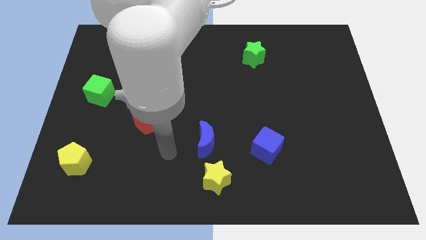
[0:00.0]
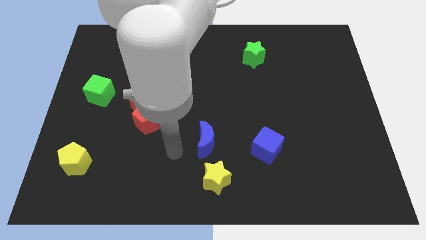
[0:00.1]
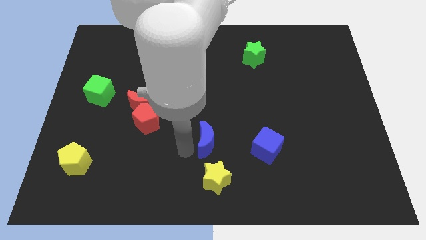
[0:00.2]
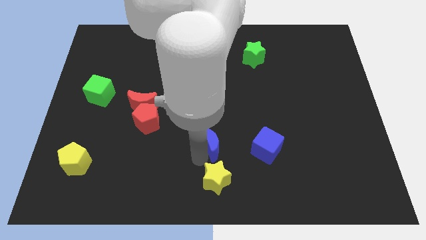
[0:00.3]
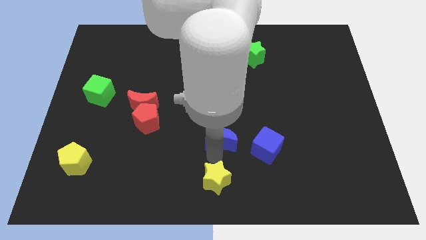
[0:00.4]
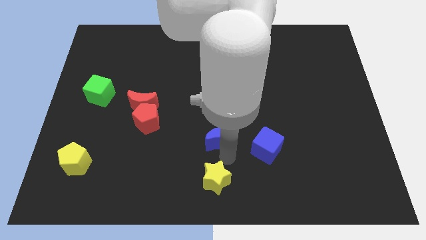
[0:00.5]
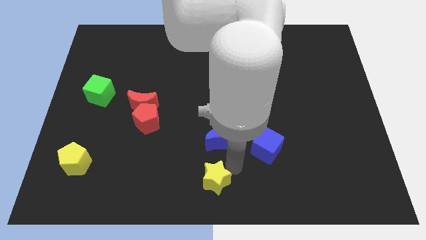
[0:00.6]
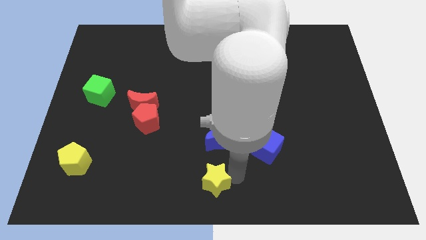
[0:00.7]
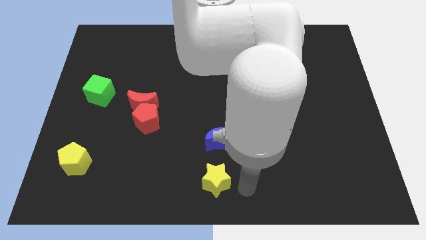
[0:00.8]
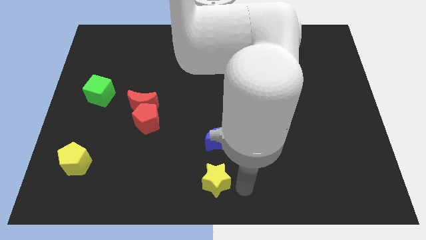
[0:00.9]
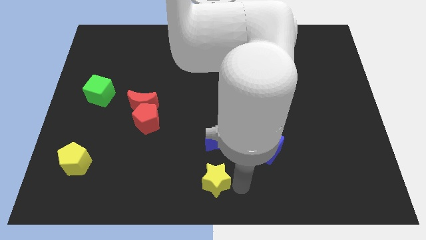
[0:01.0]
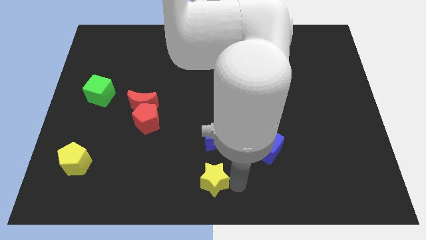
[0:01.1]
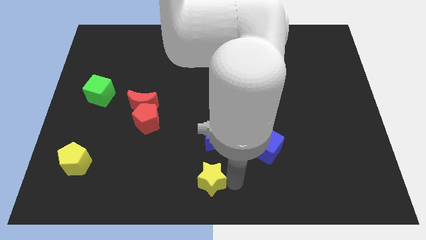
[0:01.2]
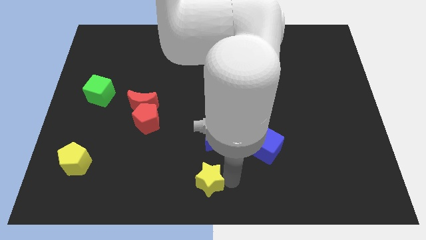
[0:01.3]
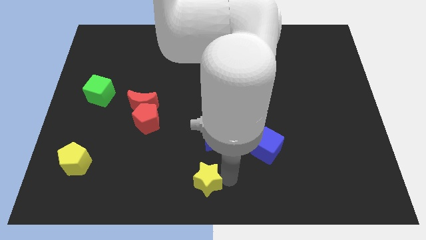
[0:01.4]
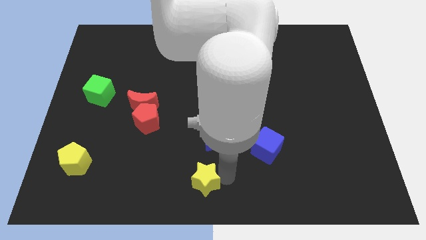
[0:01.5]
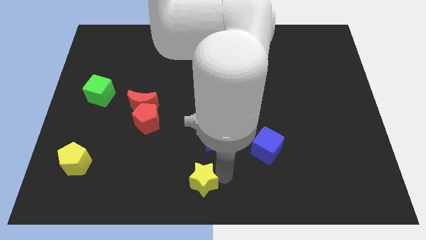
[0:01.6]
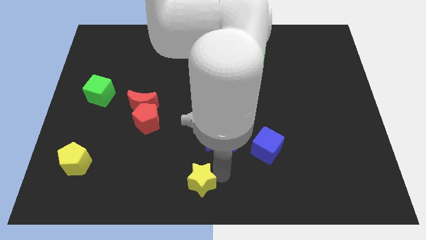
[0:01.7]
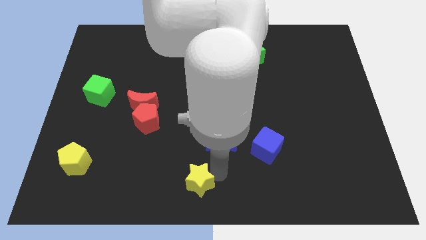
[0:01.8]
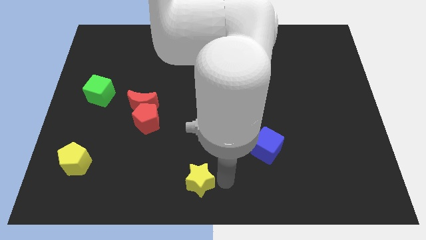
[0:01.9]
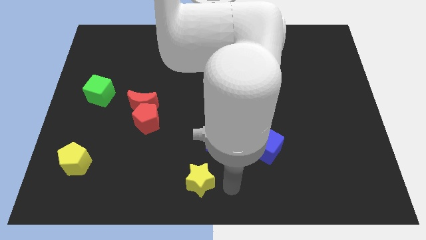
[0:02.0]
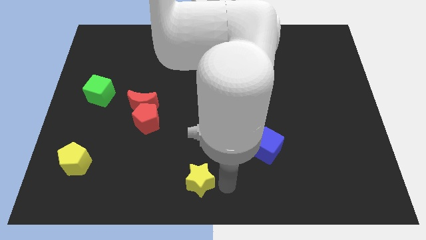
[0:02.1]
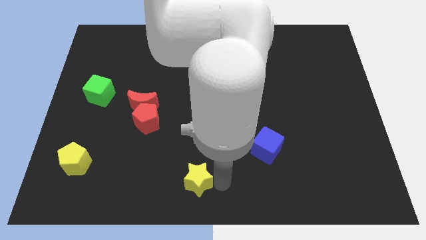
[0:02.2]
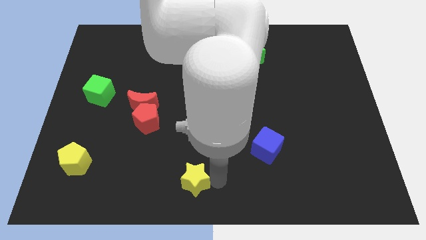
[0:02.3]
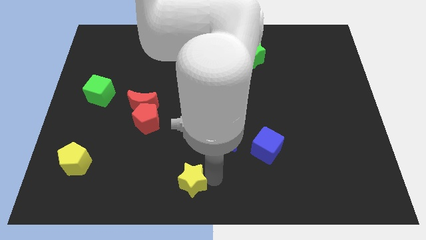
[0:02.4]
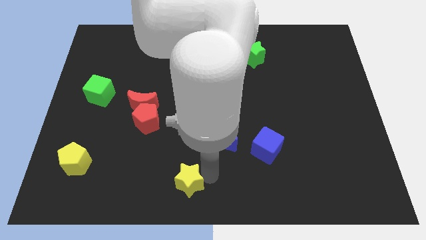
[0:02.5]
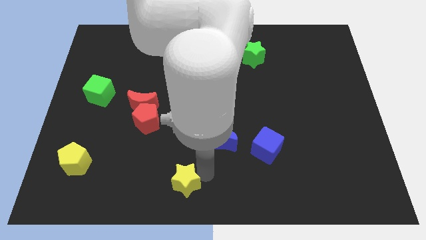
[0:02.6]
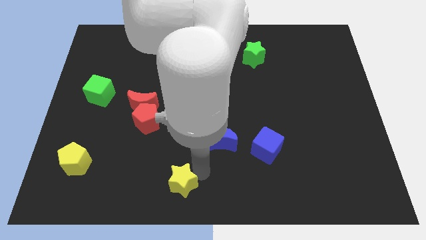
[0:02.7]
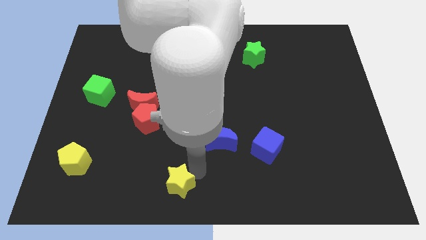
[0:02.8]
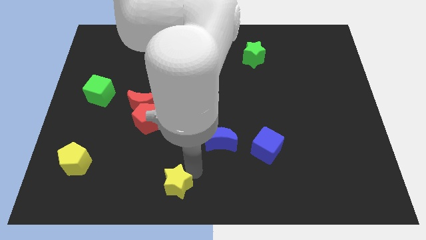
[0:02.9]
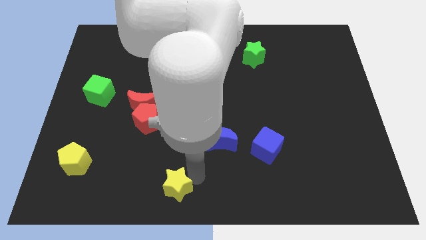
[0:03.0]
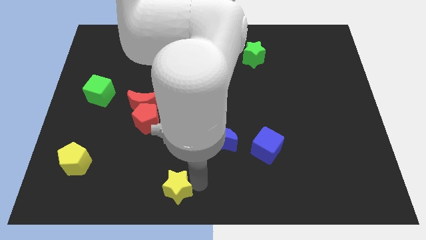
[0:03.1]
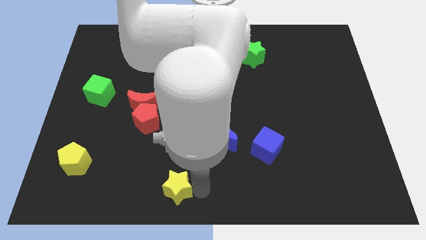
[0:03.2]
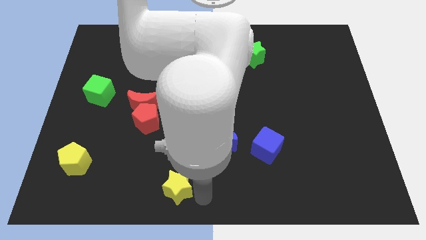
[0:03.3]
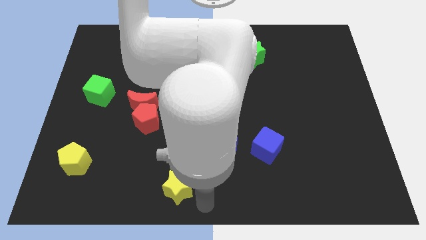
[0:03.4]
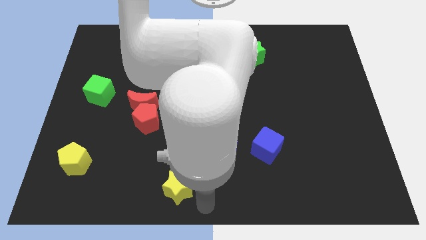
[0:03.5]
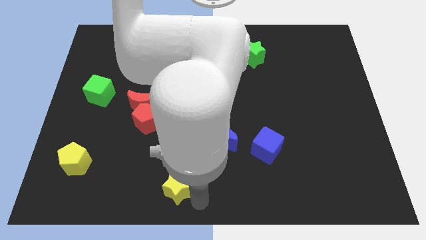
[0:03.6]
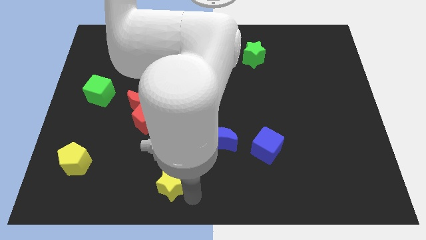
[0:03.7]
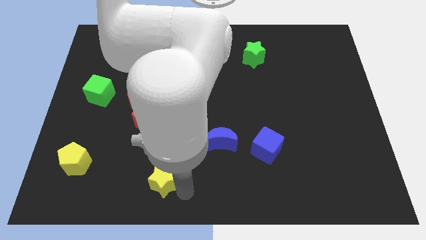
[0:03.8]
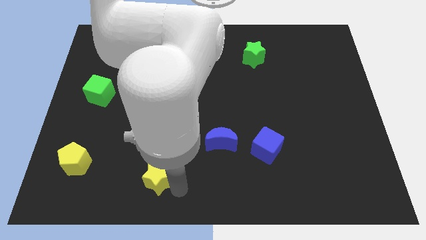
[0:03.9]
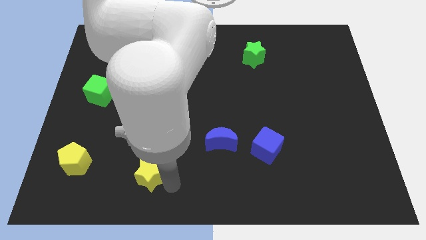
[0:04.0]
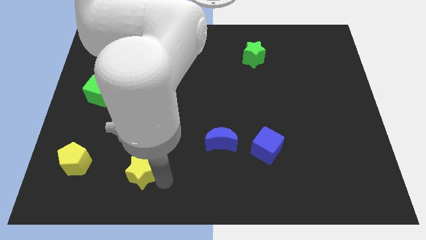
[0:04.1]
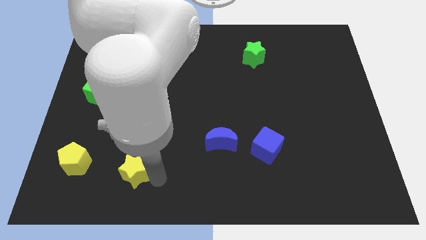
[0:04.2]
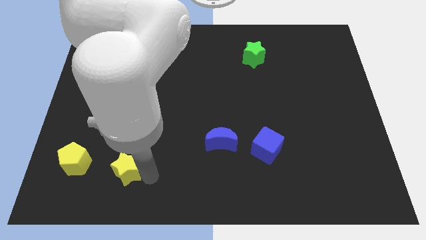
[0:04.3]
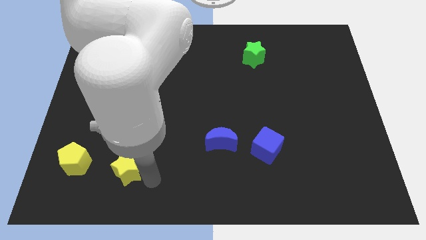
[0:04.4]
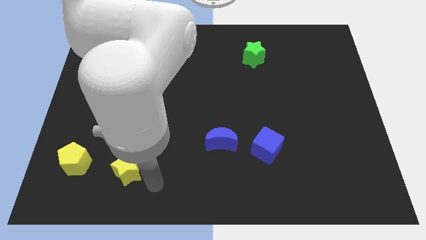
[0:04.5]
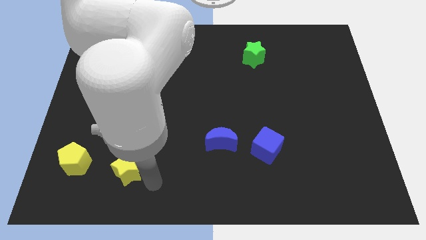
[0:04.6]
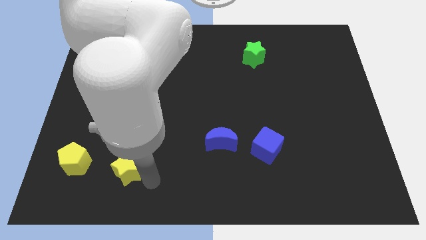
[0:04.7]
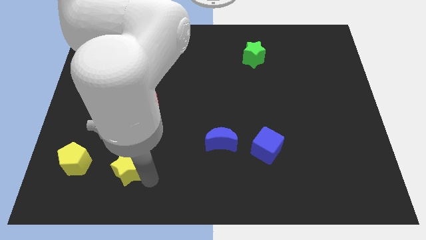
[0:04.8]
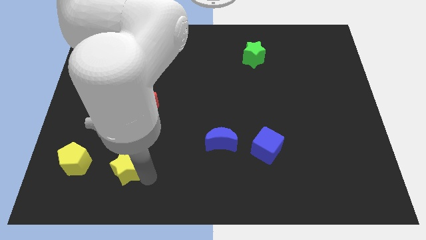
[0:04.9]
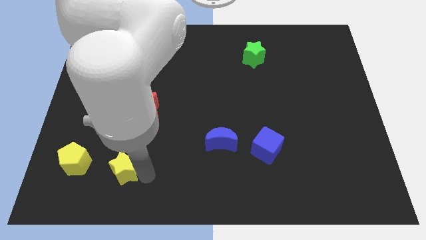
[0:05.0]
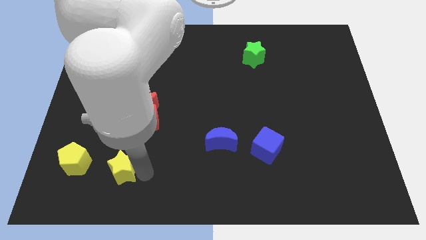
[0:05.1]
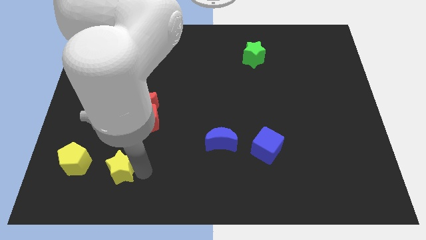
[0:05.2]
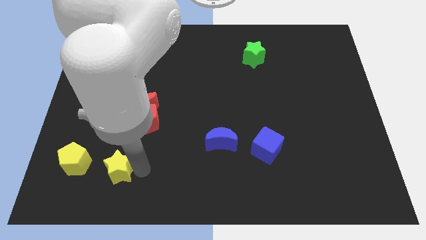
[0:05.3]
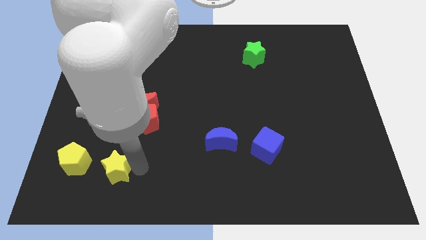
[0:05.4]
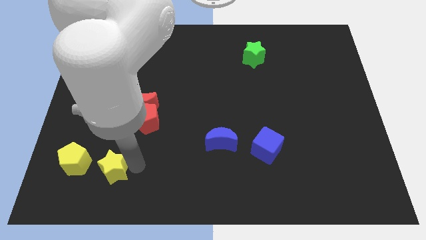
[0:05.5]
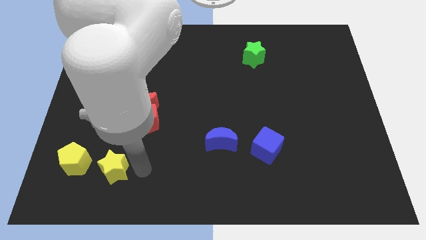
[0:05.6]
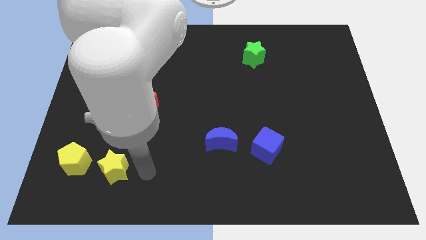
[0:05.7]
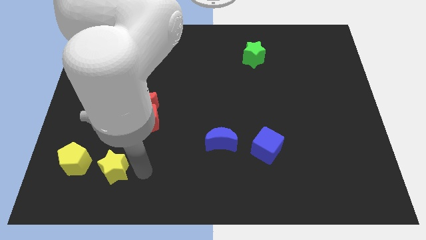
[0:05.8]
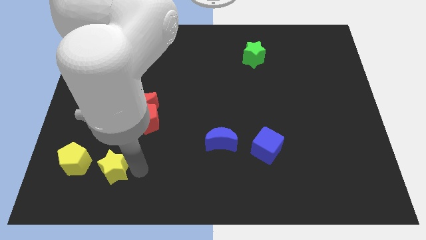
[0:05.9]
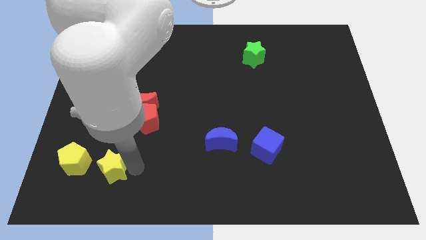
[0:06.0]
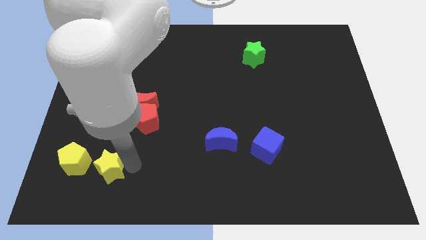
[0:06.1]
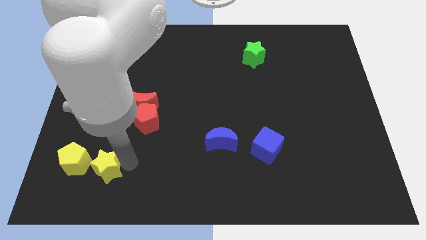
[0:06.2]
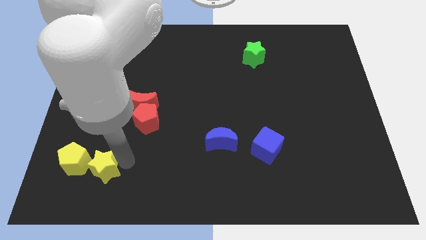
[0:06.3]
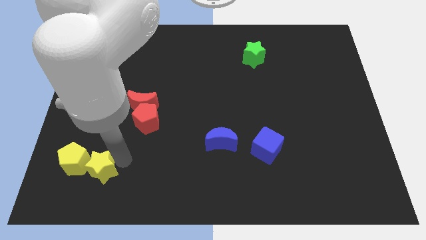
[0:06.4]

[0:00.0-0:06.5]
slide the yellow star to the yellow pentagon
